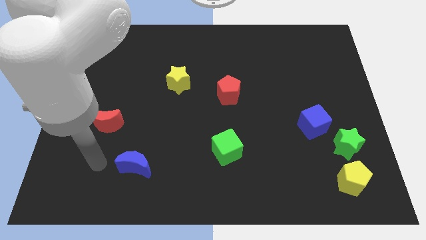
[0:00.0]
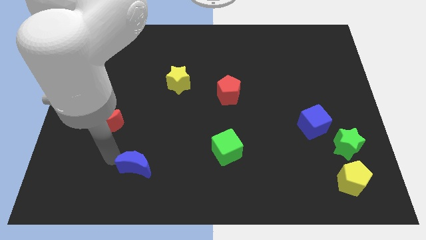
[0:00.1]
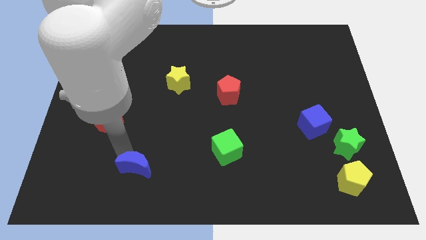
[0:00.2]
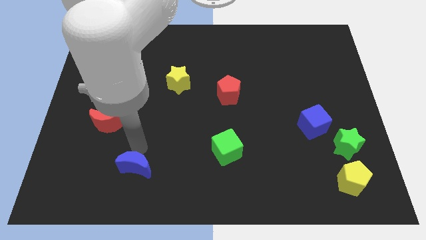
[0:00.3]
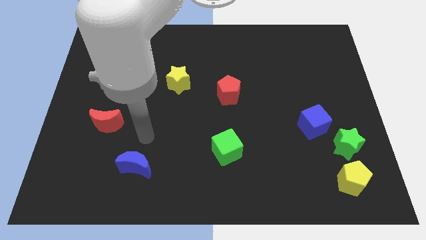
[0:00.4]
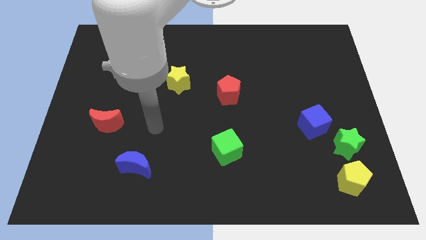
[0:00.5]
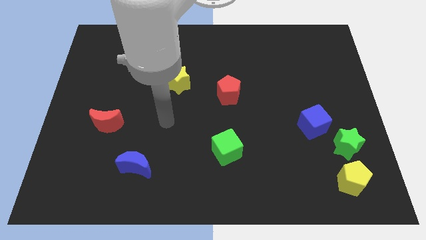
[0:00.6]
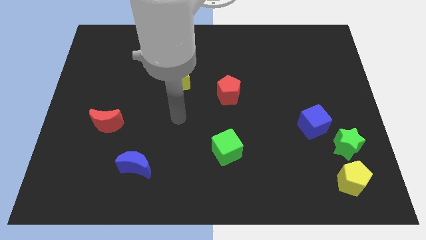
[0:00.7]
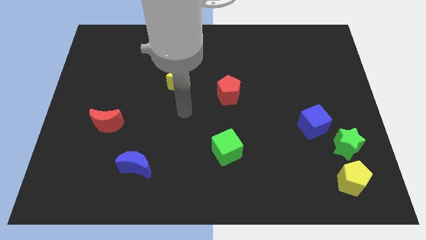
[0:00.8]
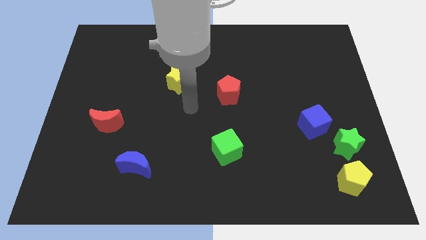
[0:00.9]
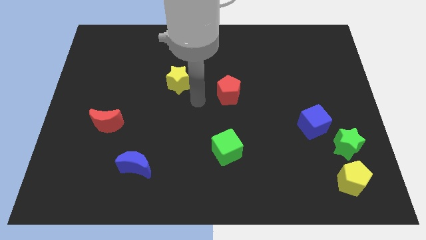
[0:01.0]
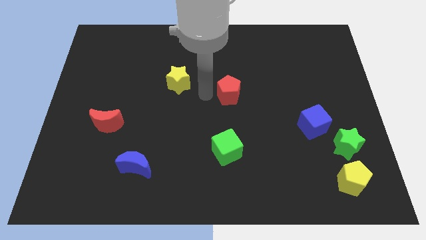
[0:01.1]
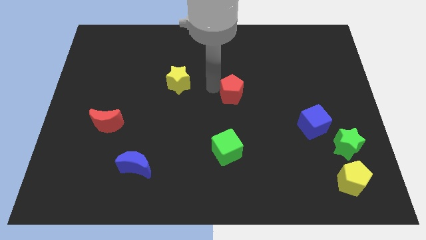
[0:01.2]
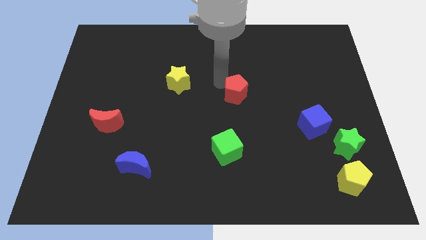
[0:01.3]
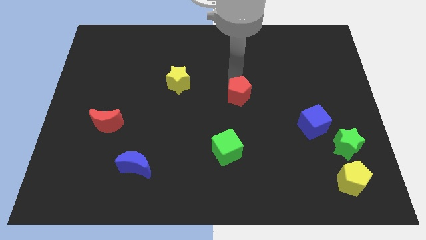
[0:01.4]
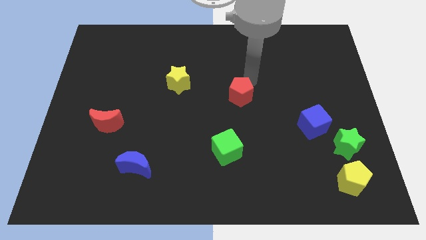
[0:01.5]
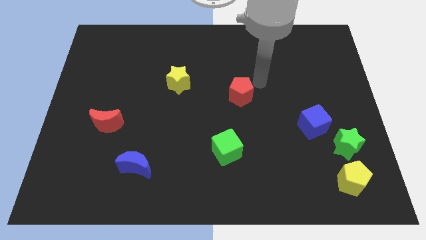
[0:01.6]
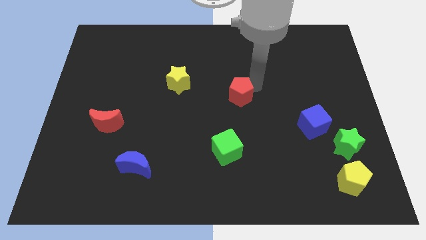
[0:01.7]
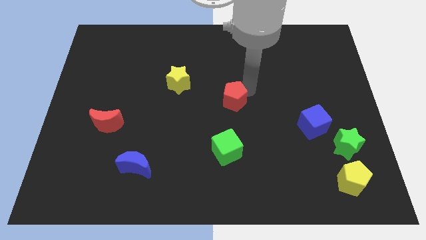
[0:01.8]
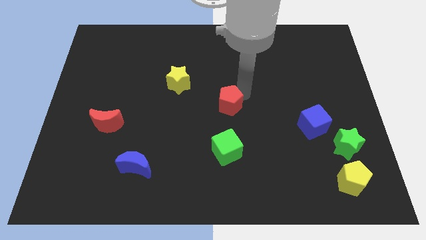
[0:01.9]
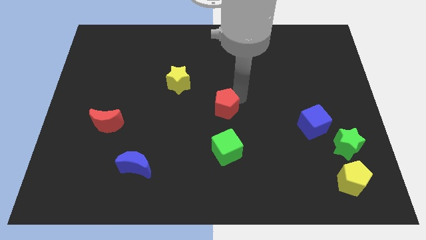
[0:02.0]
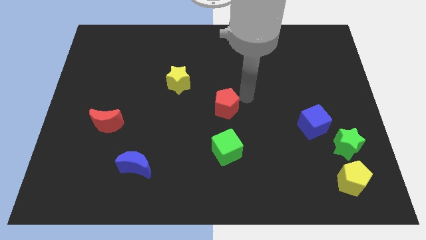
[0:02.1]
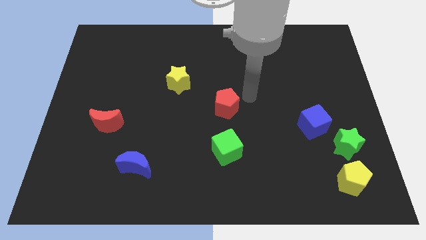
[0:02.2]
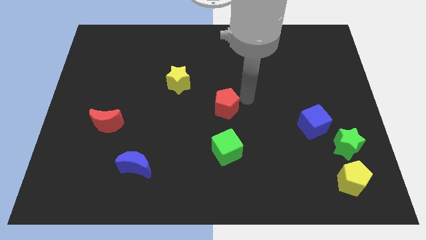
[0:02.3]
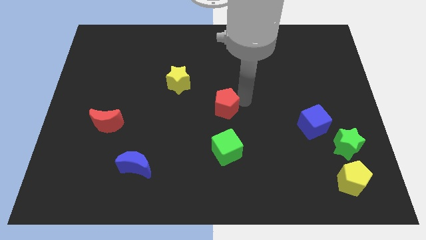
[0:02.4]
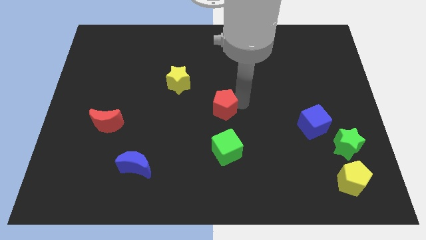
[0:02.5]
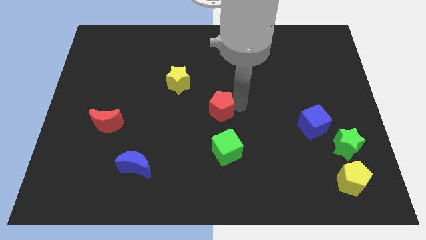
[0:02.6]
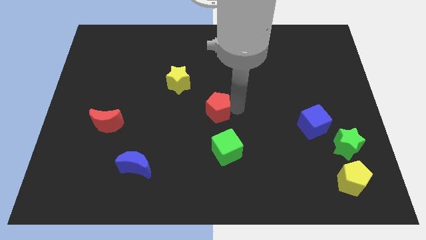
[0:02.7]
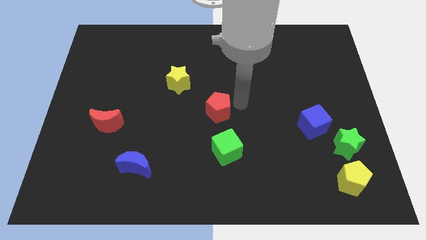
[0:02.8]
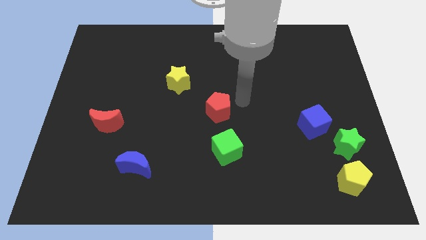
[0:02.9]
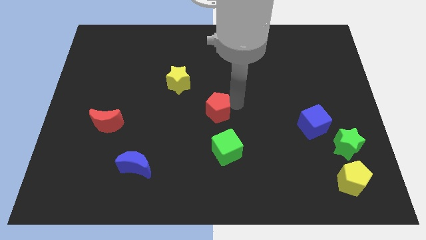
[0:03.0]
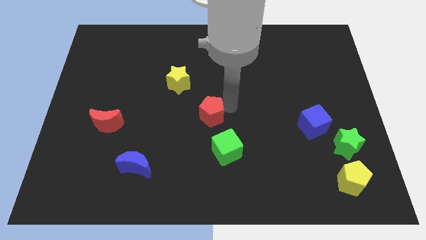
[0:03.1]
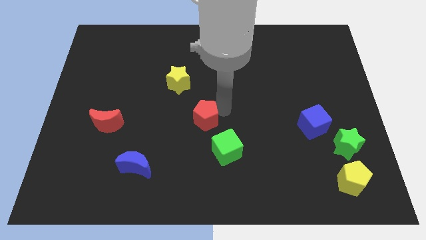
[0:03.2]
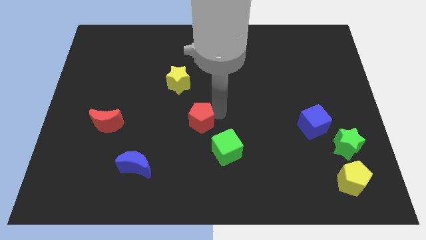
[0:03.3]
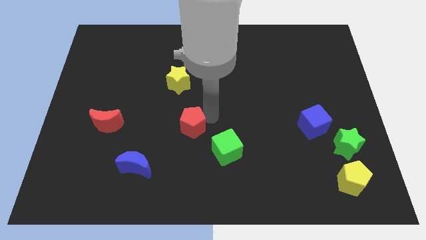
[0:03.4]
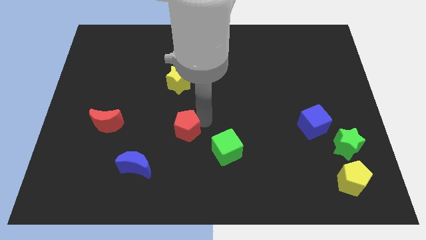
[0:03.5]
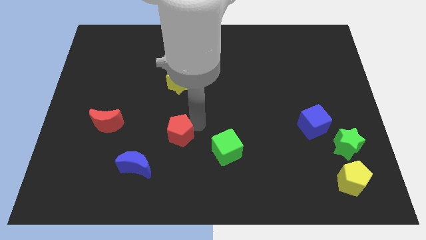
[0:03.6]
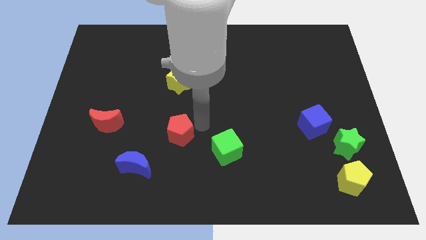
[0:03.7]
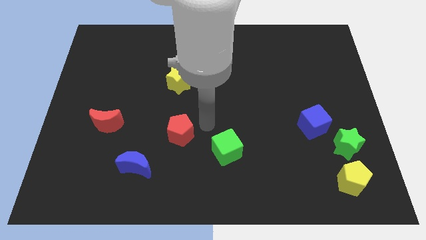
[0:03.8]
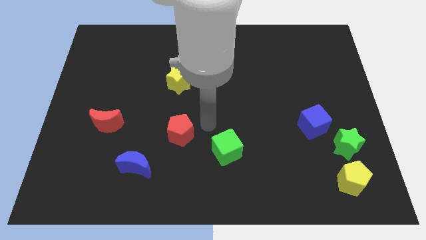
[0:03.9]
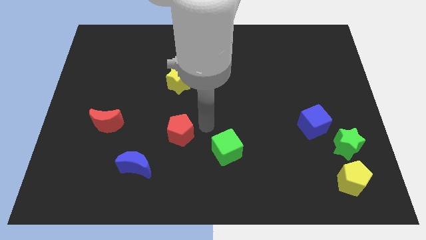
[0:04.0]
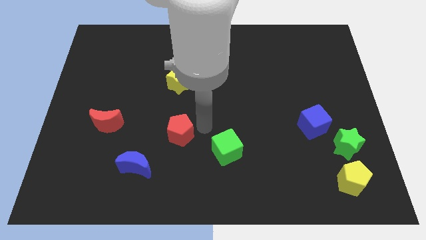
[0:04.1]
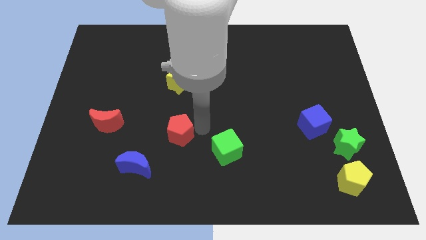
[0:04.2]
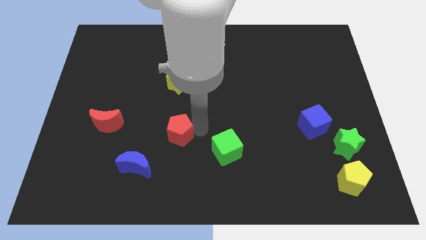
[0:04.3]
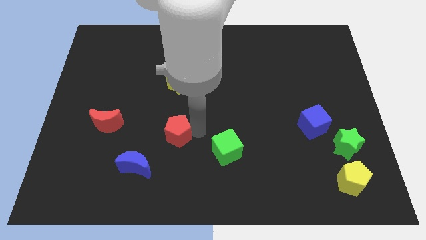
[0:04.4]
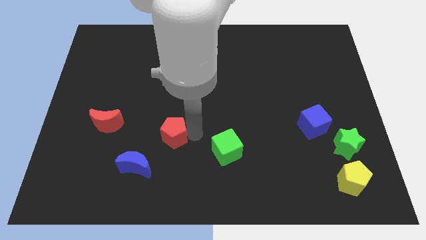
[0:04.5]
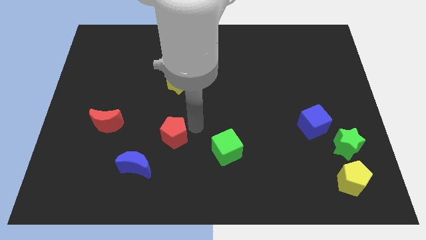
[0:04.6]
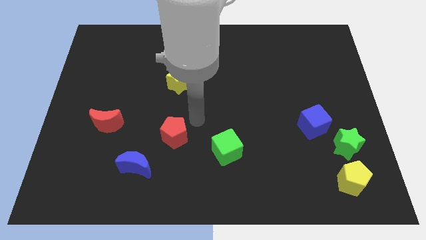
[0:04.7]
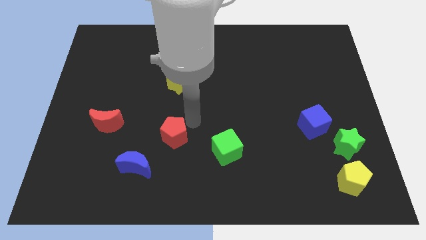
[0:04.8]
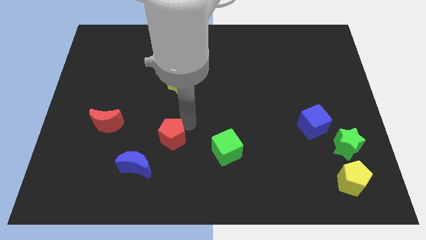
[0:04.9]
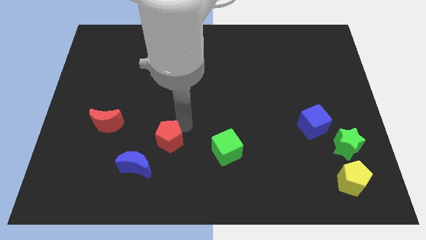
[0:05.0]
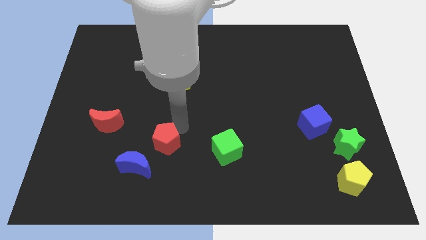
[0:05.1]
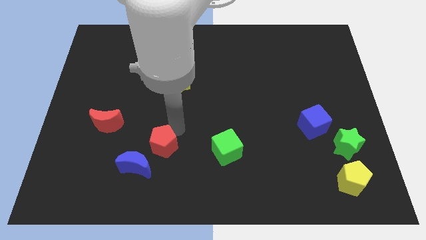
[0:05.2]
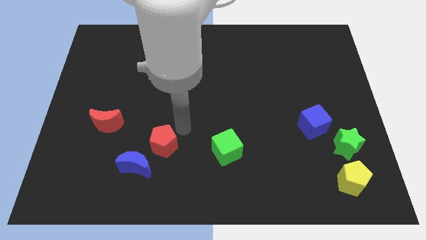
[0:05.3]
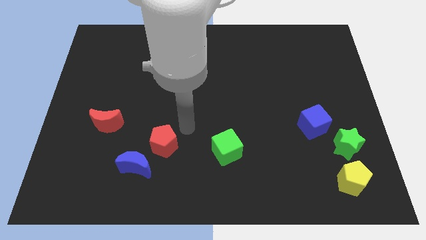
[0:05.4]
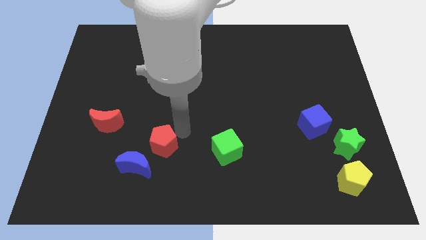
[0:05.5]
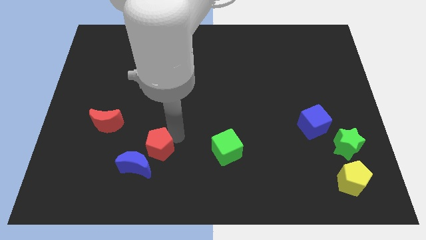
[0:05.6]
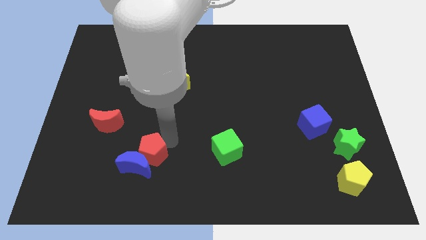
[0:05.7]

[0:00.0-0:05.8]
push the red pentagon to the blue moon
